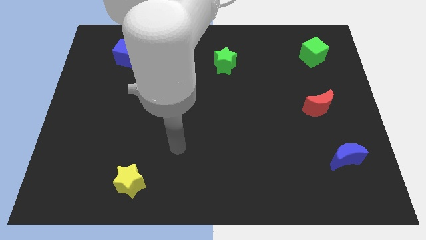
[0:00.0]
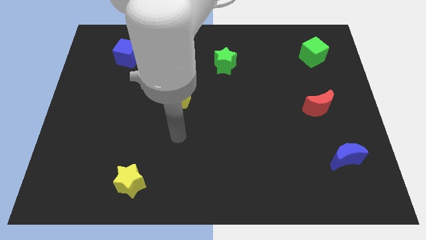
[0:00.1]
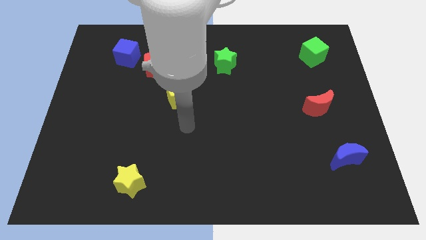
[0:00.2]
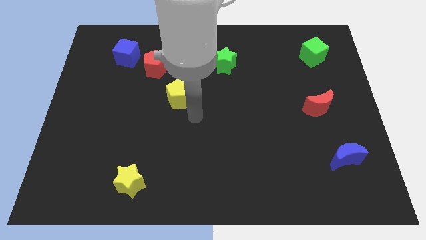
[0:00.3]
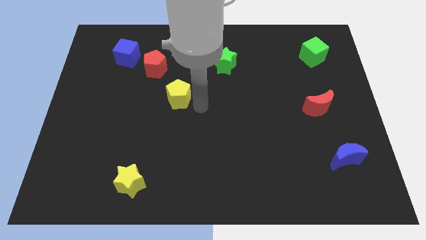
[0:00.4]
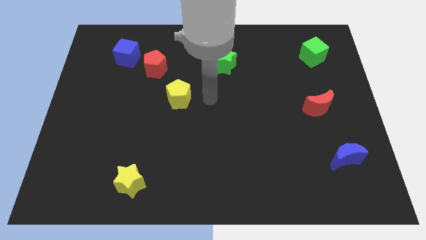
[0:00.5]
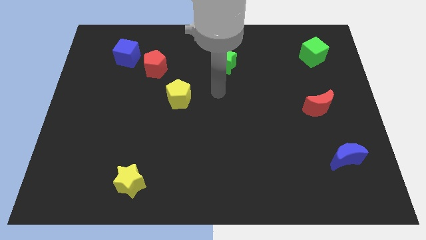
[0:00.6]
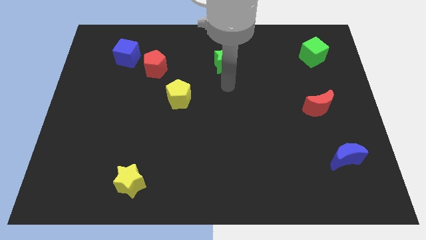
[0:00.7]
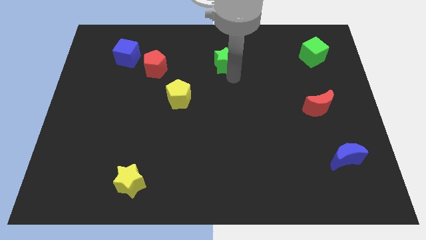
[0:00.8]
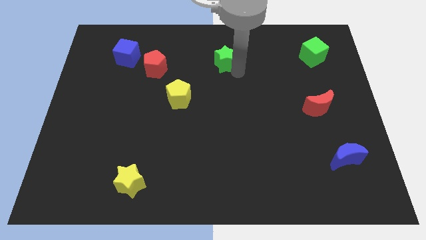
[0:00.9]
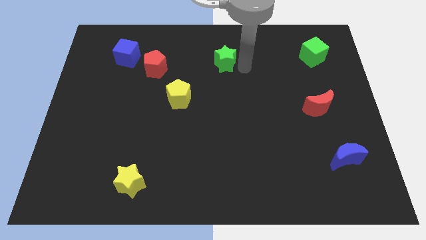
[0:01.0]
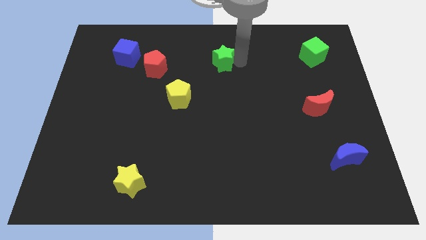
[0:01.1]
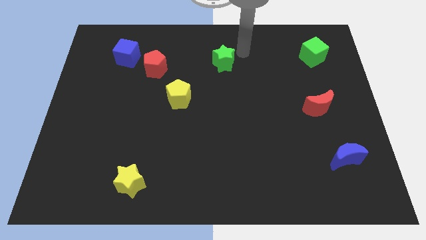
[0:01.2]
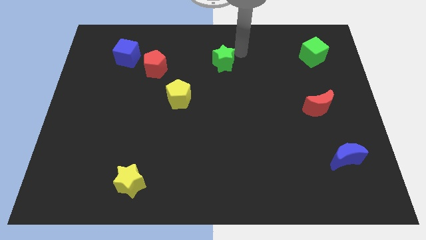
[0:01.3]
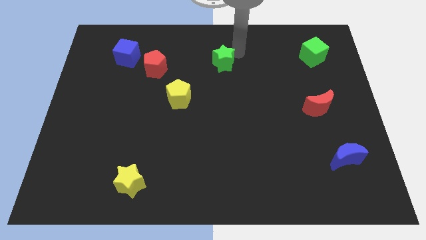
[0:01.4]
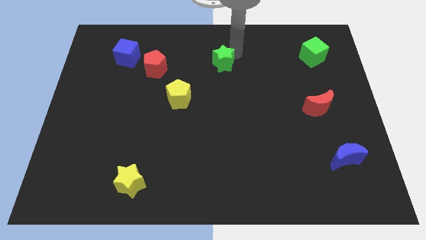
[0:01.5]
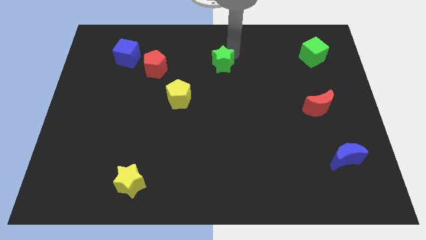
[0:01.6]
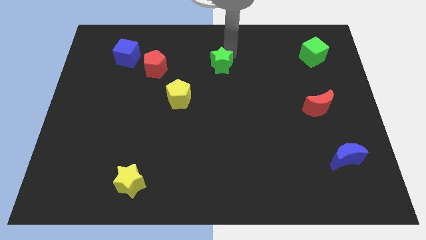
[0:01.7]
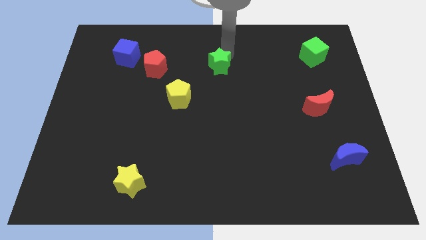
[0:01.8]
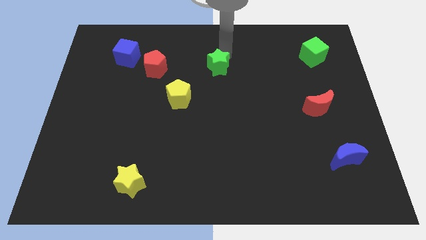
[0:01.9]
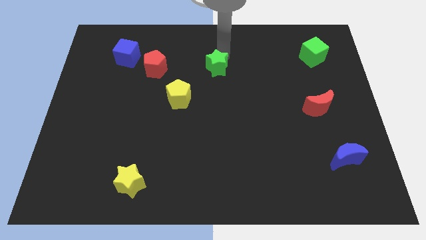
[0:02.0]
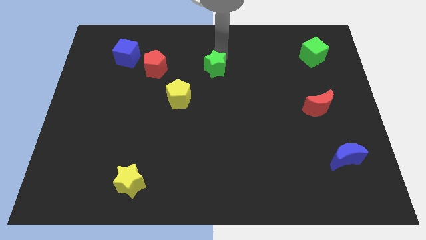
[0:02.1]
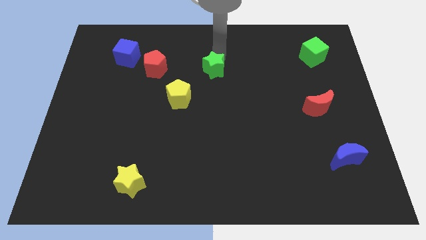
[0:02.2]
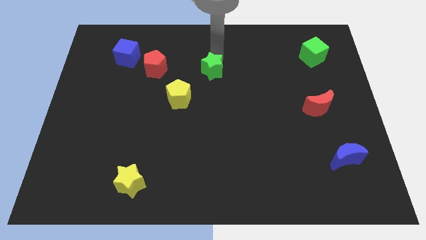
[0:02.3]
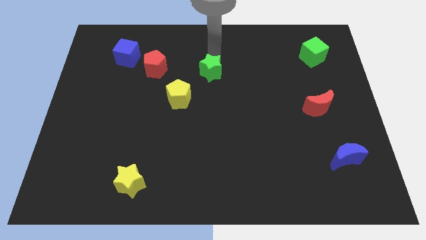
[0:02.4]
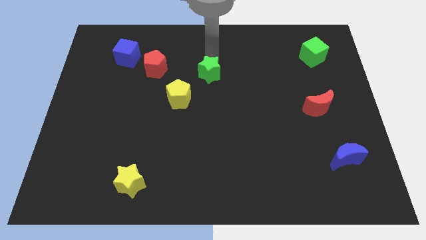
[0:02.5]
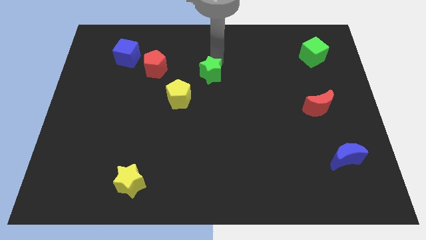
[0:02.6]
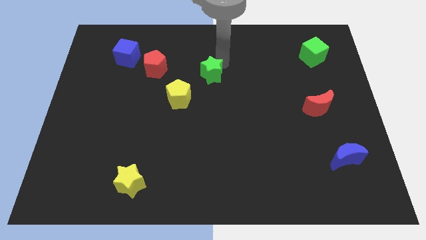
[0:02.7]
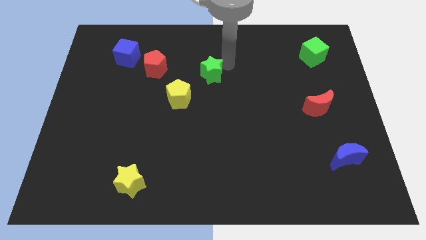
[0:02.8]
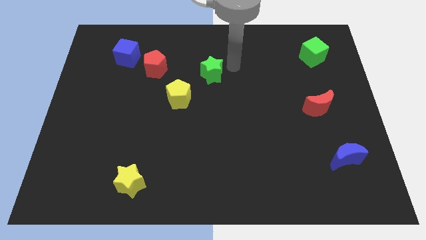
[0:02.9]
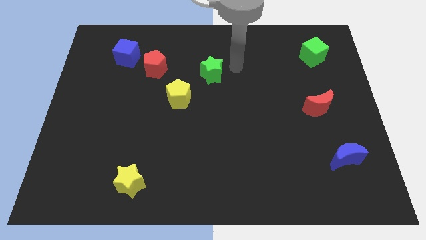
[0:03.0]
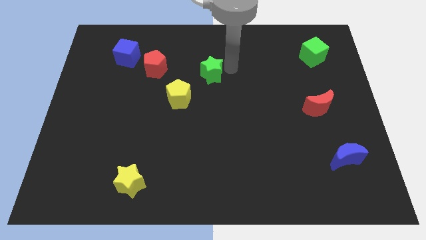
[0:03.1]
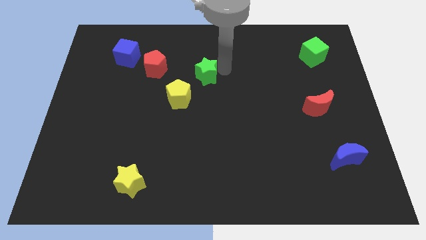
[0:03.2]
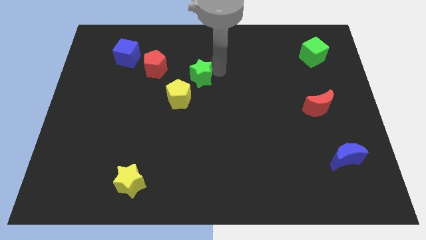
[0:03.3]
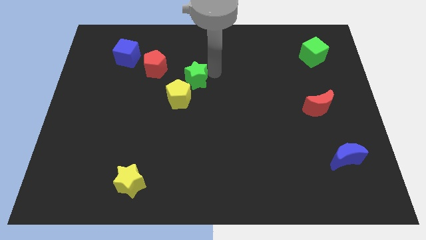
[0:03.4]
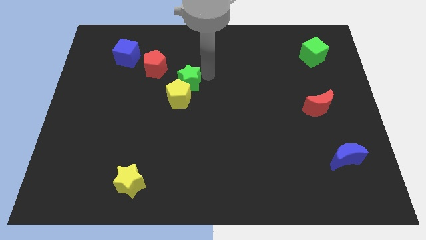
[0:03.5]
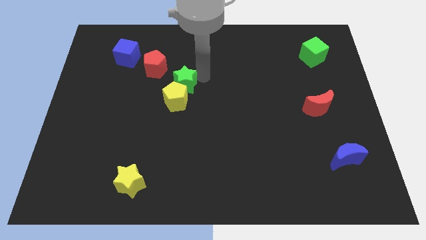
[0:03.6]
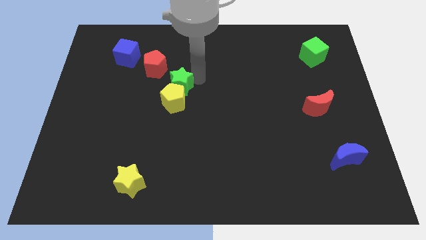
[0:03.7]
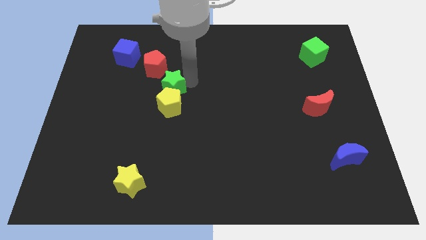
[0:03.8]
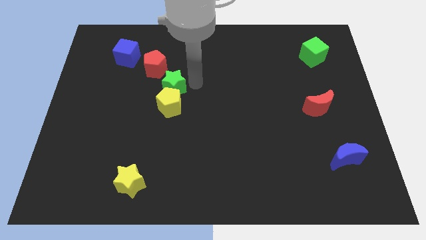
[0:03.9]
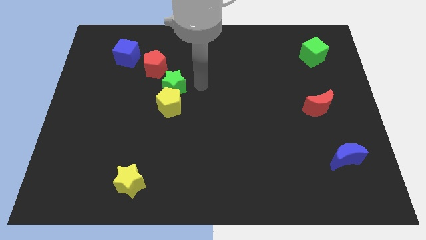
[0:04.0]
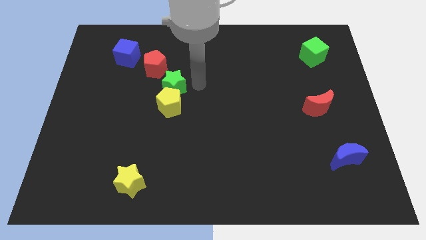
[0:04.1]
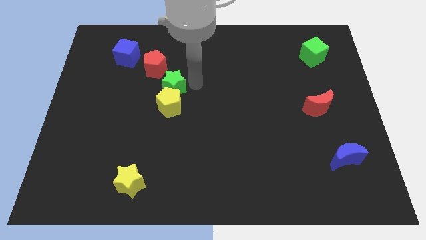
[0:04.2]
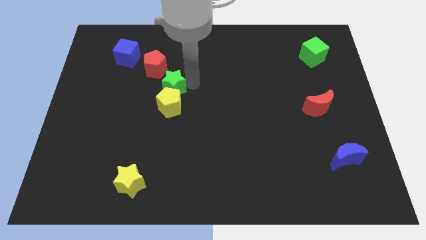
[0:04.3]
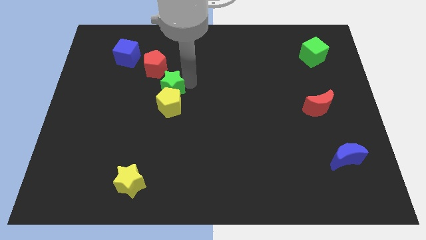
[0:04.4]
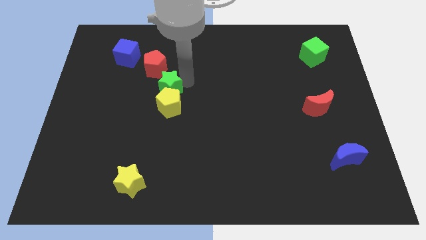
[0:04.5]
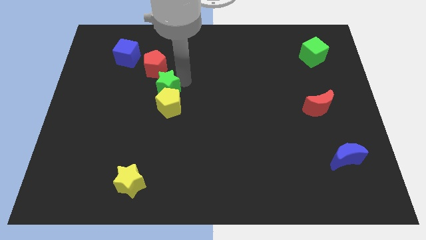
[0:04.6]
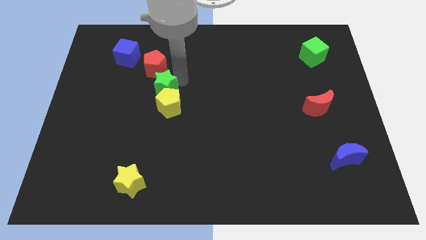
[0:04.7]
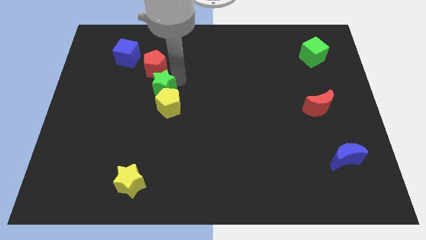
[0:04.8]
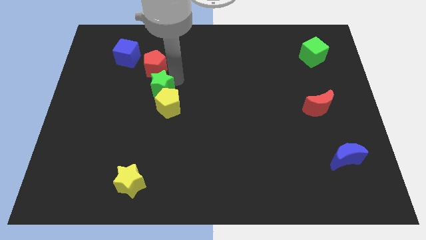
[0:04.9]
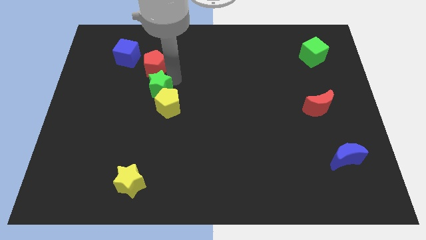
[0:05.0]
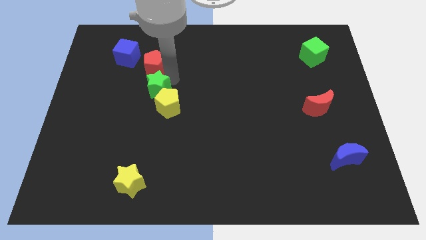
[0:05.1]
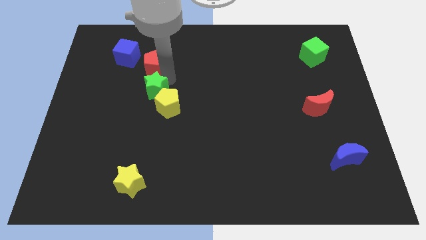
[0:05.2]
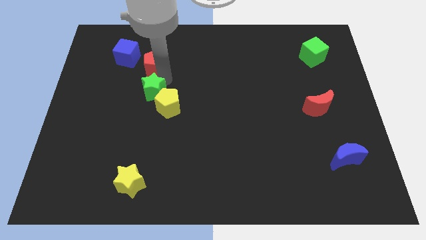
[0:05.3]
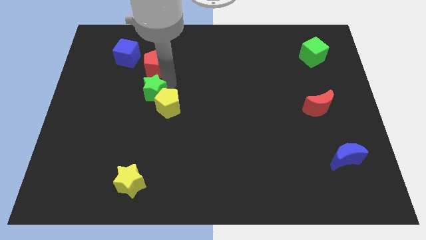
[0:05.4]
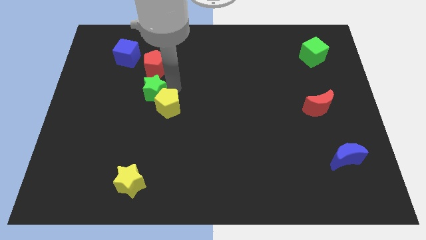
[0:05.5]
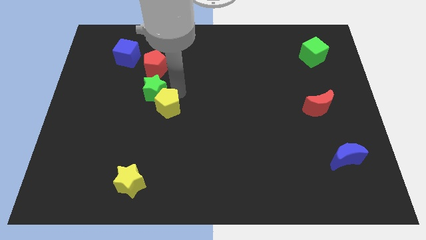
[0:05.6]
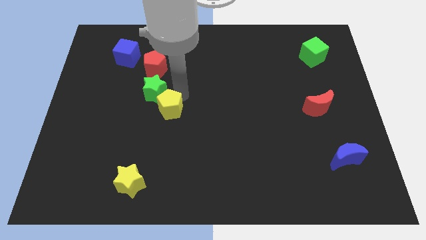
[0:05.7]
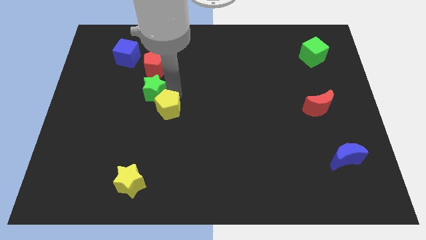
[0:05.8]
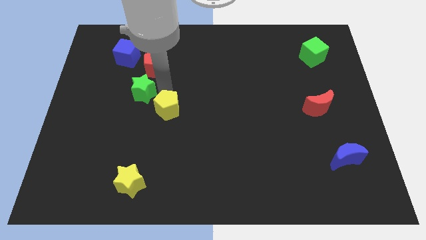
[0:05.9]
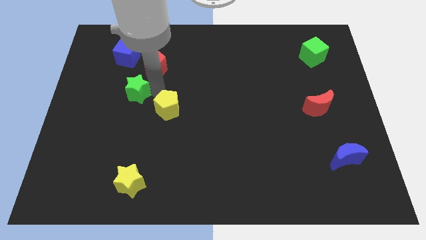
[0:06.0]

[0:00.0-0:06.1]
put the green star to the bottom of the blue cube

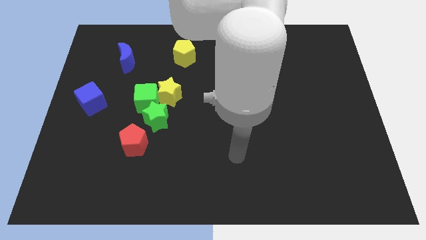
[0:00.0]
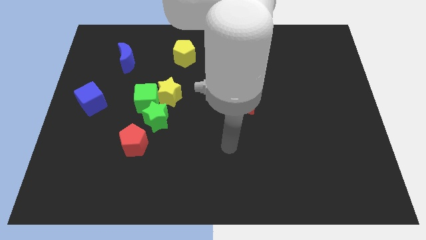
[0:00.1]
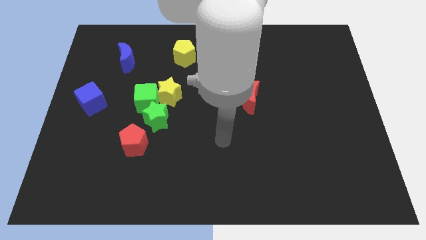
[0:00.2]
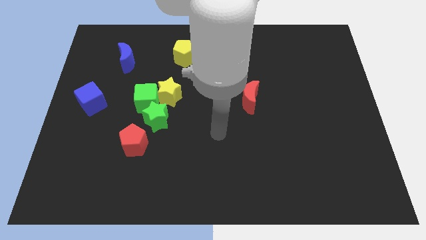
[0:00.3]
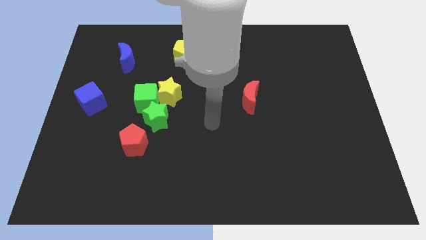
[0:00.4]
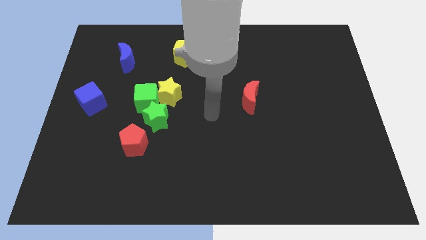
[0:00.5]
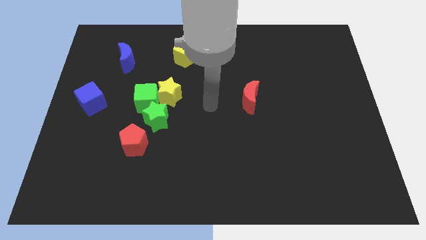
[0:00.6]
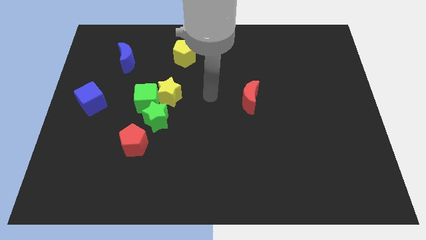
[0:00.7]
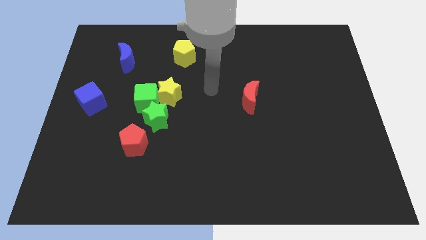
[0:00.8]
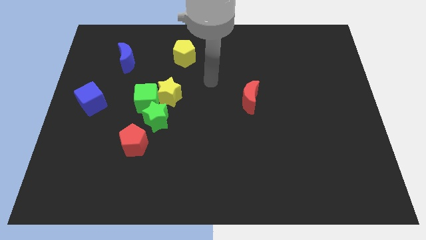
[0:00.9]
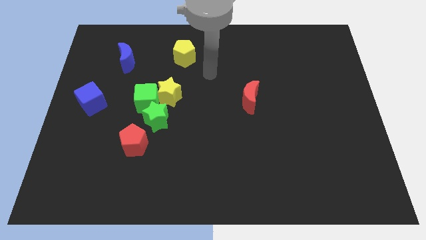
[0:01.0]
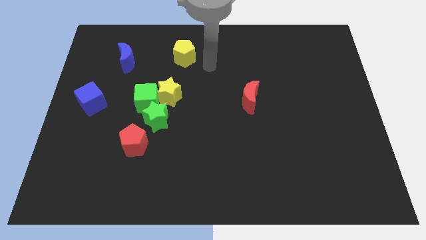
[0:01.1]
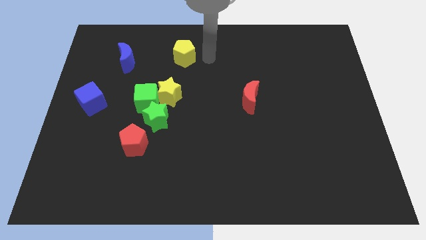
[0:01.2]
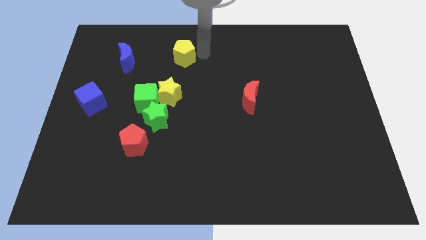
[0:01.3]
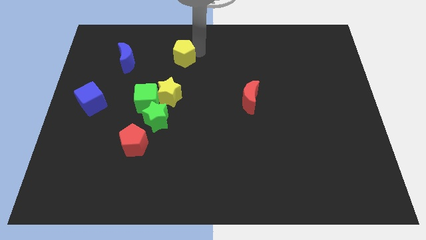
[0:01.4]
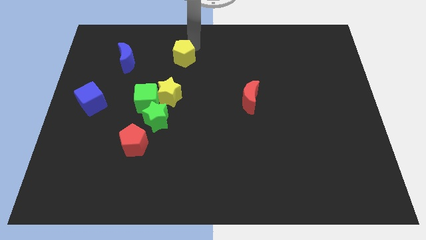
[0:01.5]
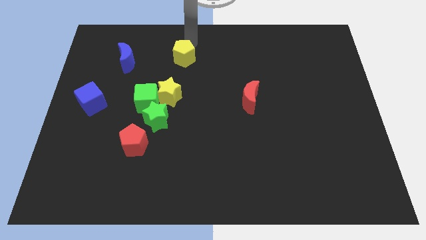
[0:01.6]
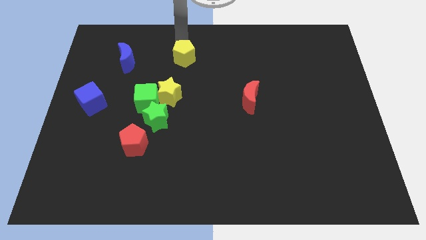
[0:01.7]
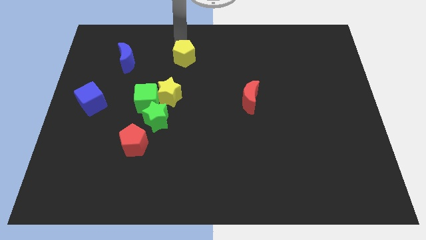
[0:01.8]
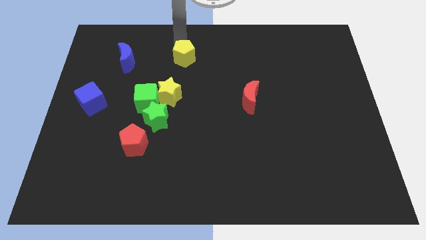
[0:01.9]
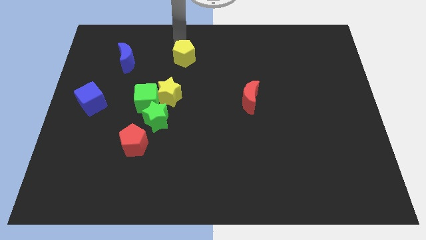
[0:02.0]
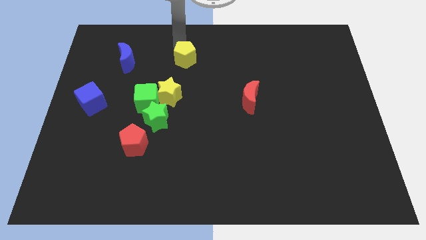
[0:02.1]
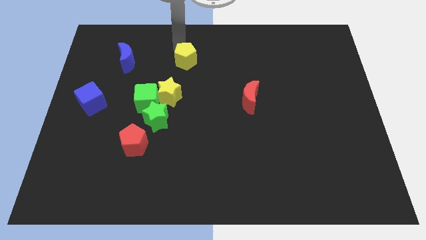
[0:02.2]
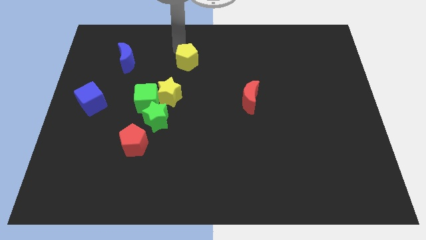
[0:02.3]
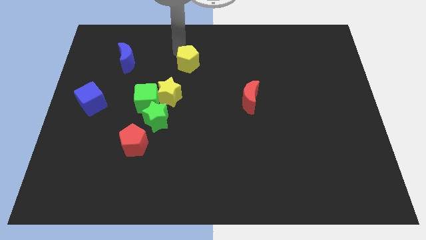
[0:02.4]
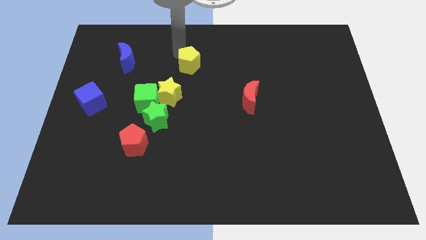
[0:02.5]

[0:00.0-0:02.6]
slide the yellow pentagon to the top right side of the yellow star
